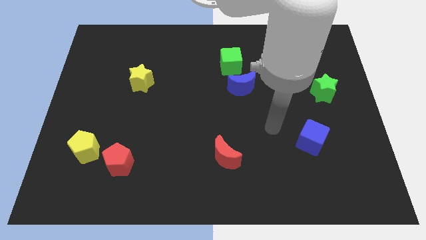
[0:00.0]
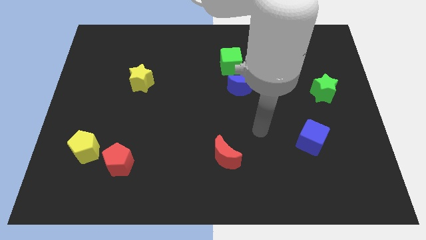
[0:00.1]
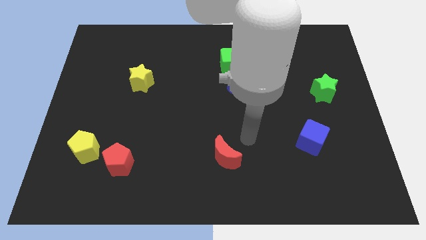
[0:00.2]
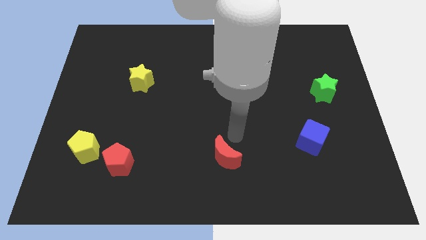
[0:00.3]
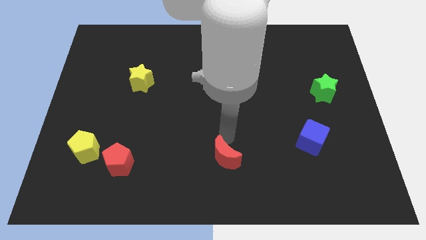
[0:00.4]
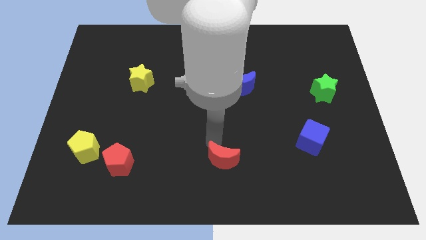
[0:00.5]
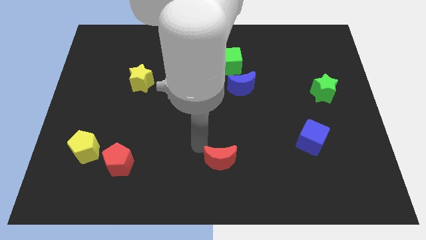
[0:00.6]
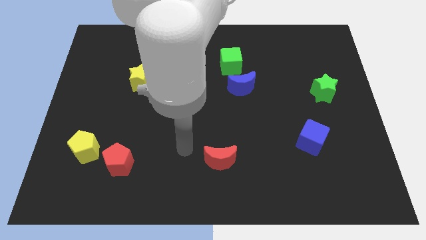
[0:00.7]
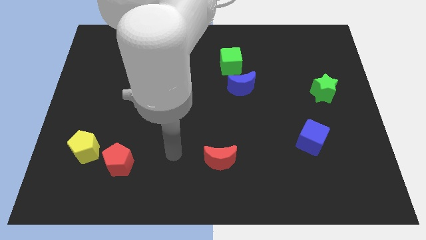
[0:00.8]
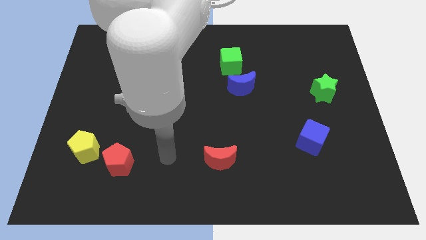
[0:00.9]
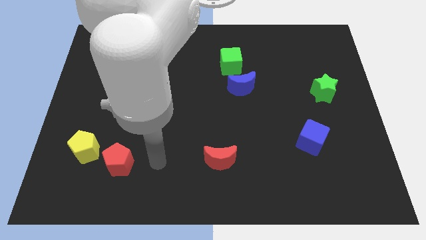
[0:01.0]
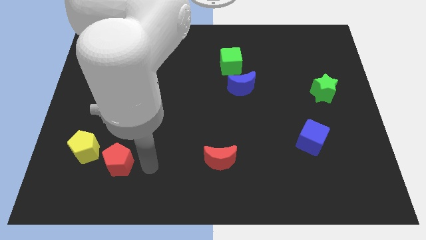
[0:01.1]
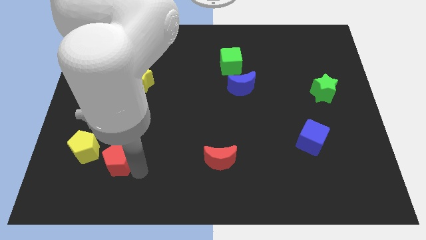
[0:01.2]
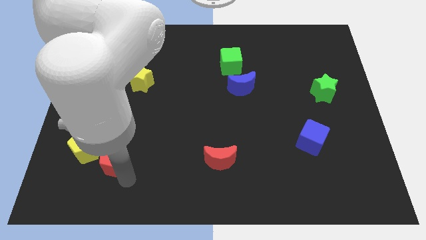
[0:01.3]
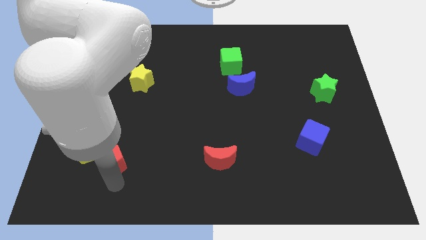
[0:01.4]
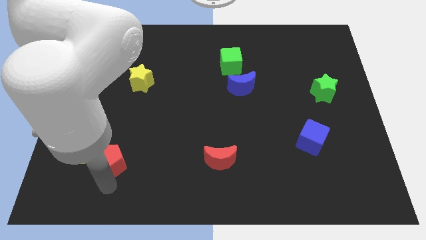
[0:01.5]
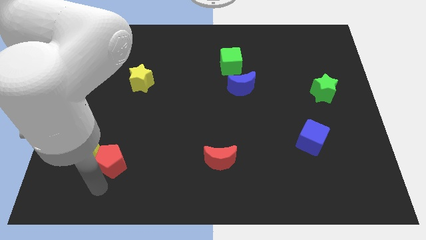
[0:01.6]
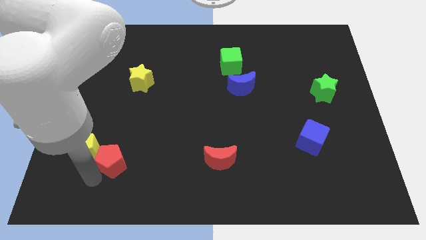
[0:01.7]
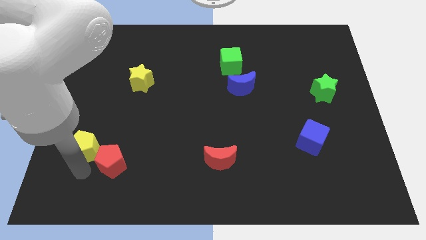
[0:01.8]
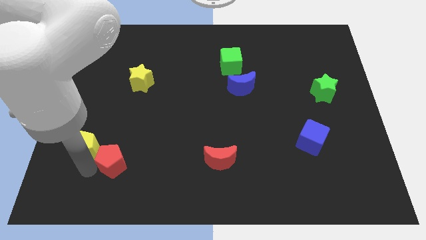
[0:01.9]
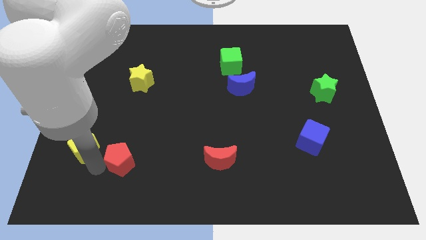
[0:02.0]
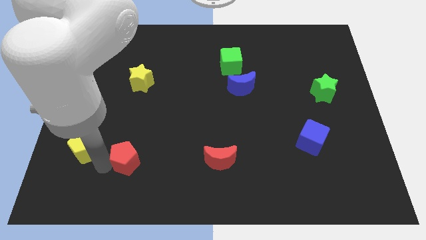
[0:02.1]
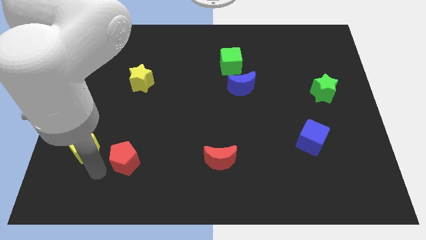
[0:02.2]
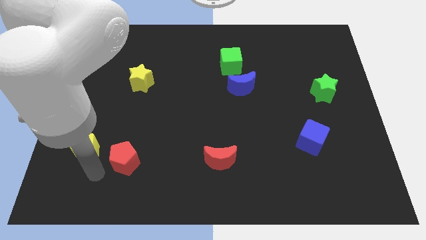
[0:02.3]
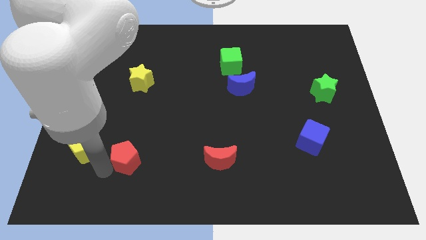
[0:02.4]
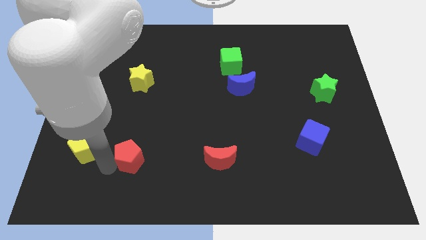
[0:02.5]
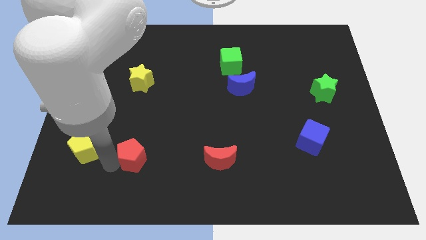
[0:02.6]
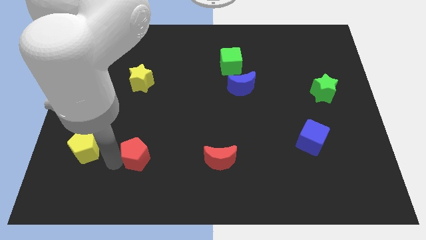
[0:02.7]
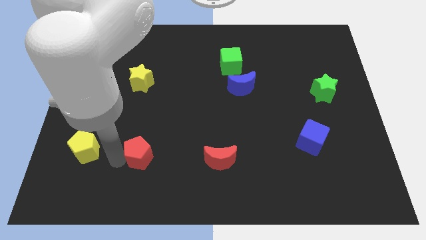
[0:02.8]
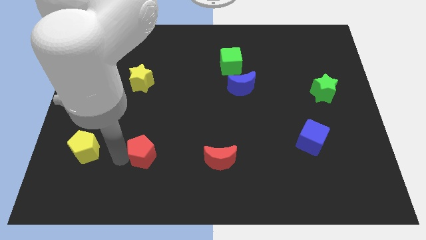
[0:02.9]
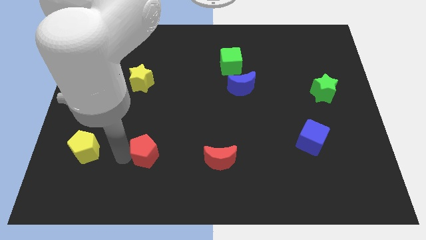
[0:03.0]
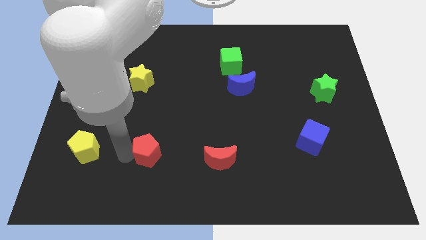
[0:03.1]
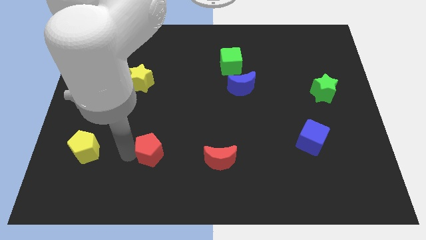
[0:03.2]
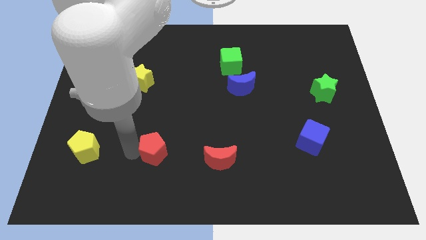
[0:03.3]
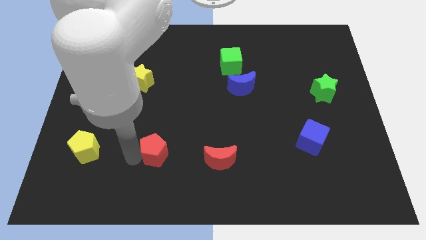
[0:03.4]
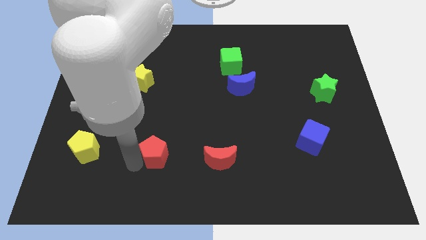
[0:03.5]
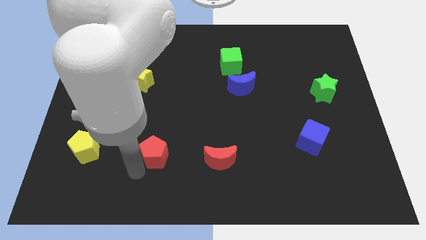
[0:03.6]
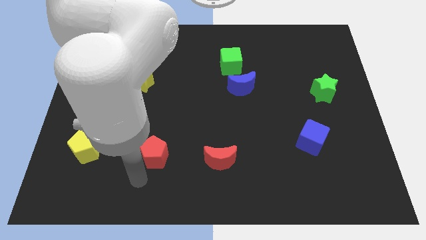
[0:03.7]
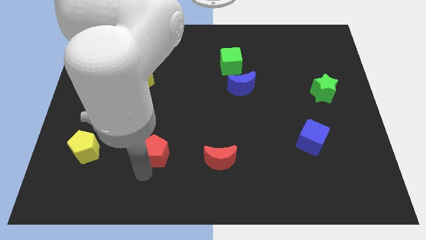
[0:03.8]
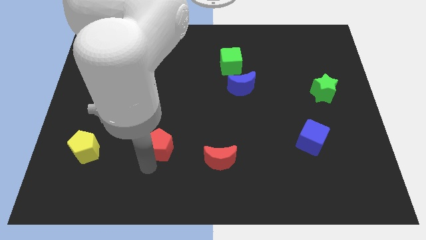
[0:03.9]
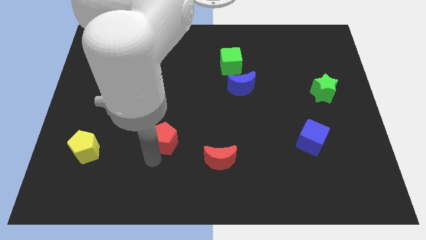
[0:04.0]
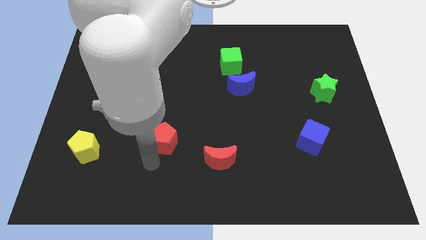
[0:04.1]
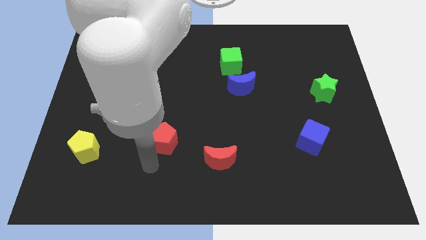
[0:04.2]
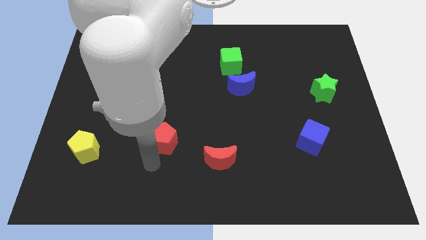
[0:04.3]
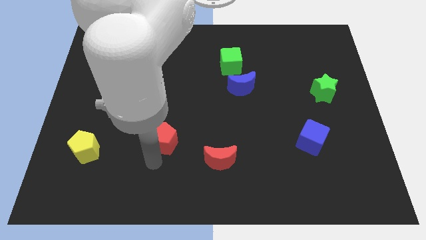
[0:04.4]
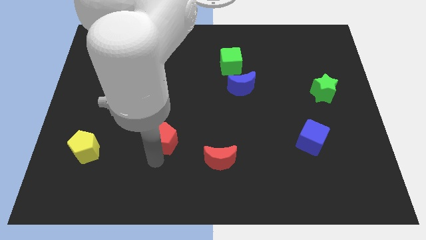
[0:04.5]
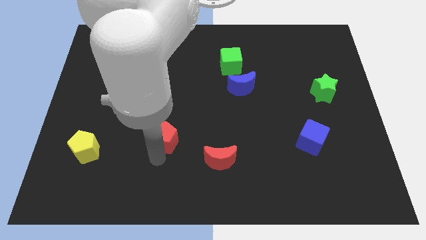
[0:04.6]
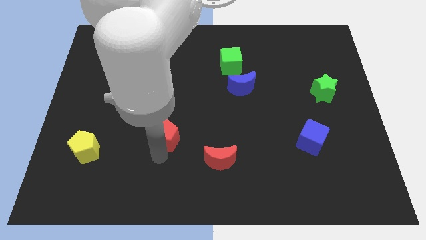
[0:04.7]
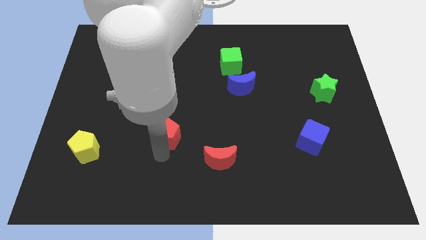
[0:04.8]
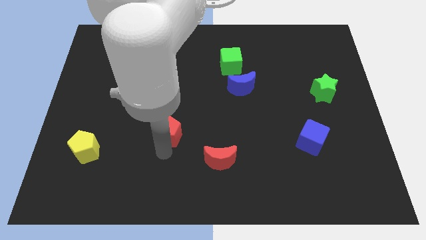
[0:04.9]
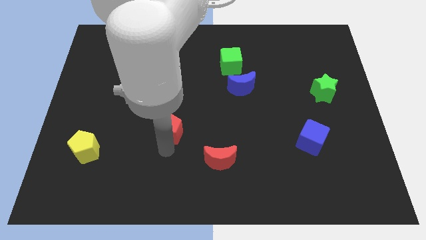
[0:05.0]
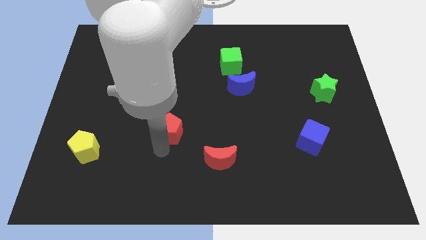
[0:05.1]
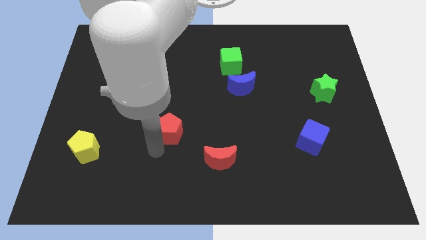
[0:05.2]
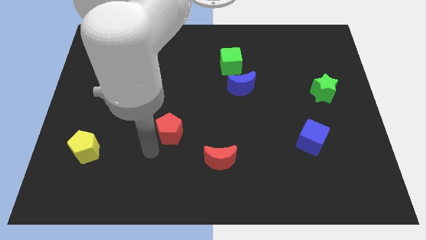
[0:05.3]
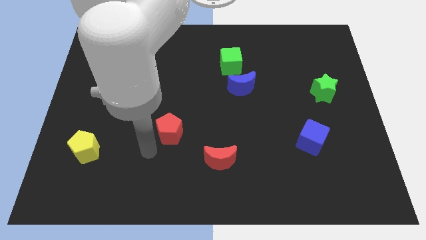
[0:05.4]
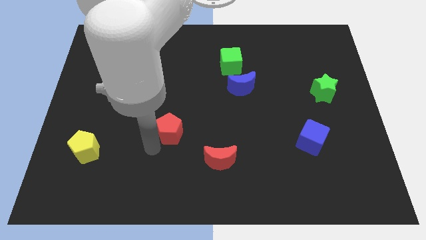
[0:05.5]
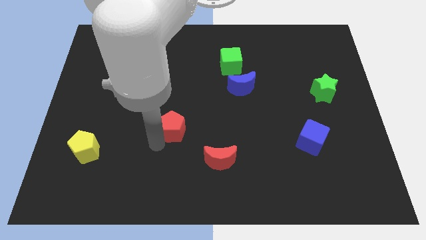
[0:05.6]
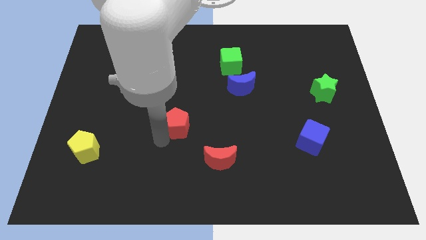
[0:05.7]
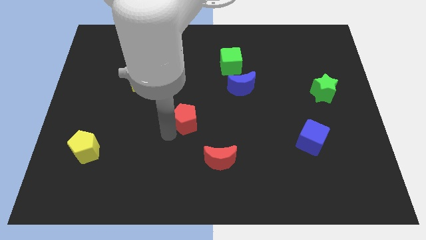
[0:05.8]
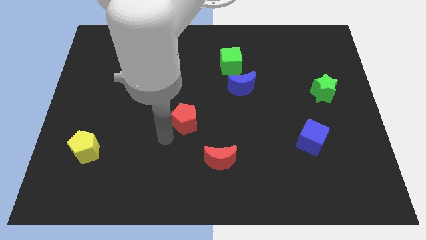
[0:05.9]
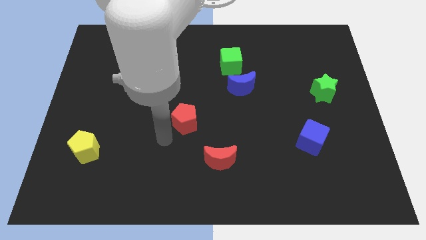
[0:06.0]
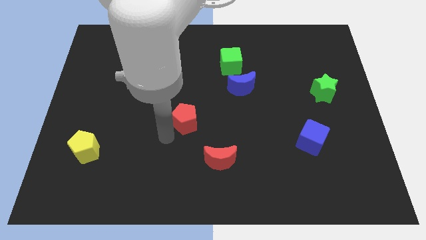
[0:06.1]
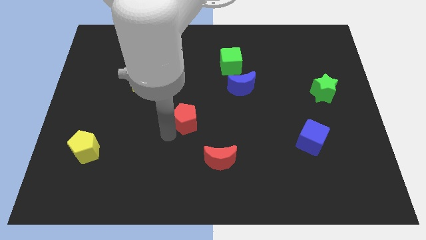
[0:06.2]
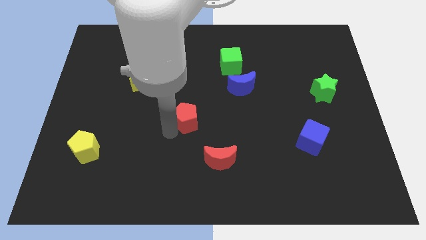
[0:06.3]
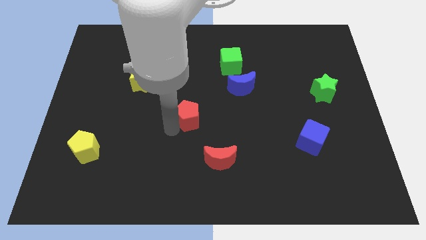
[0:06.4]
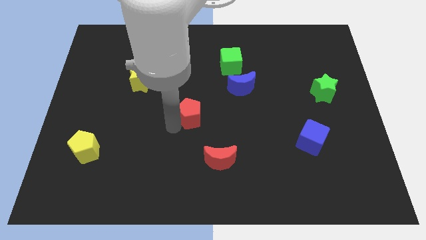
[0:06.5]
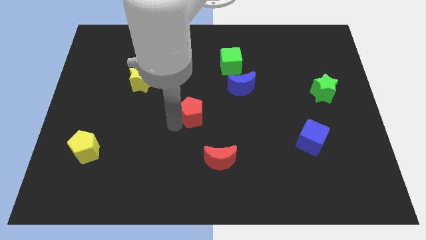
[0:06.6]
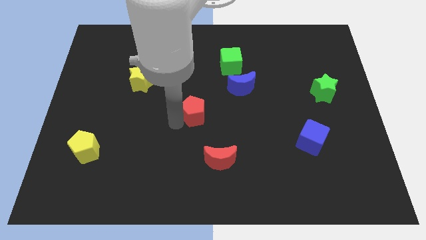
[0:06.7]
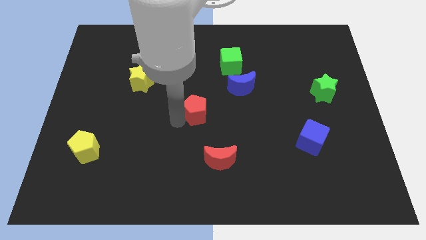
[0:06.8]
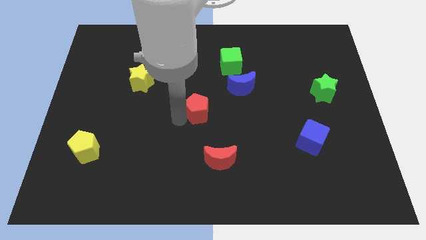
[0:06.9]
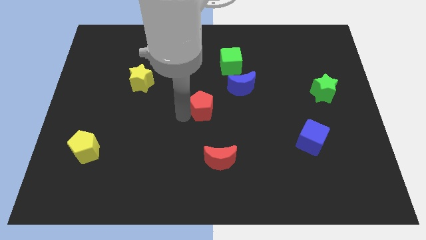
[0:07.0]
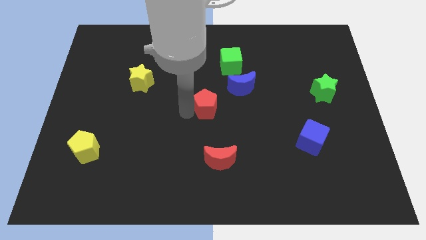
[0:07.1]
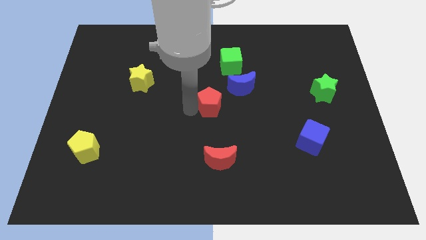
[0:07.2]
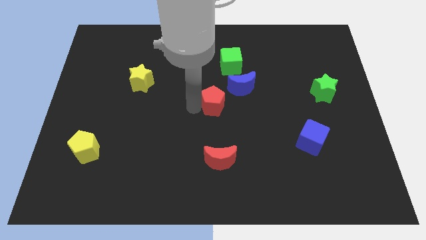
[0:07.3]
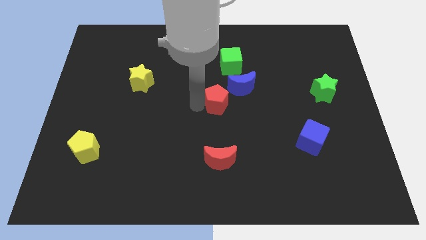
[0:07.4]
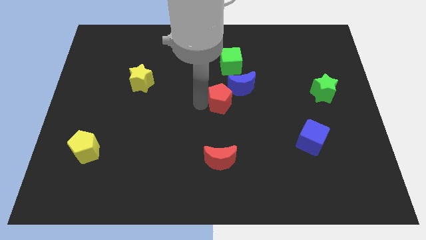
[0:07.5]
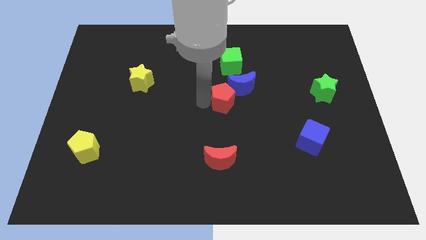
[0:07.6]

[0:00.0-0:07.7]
move the red pentagon close to the blue moon
